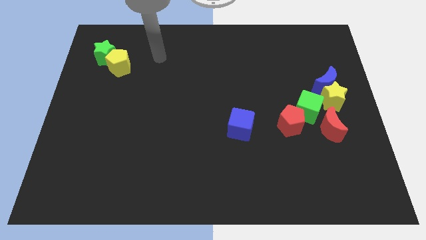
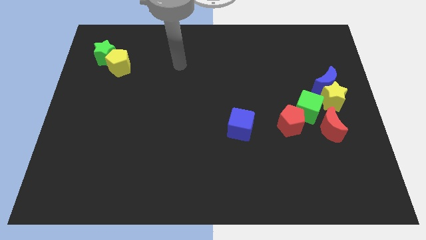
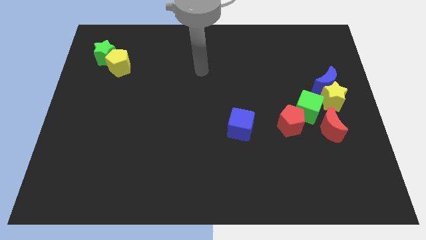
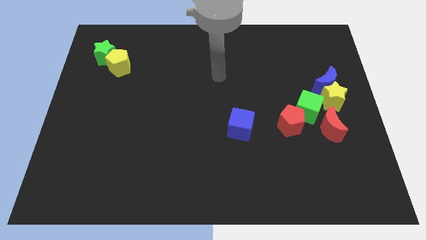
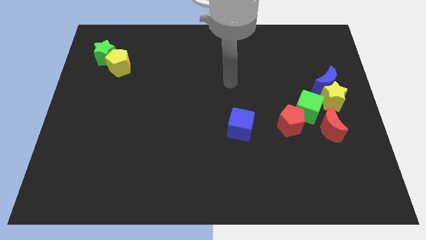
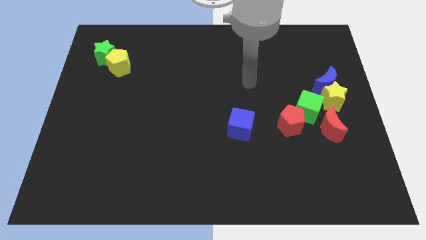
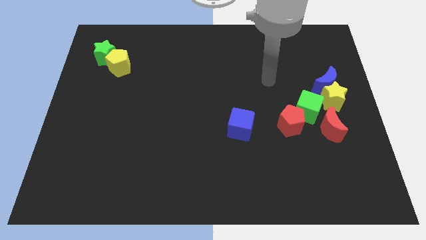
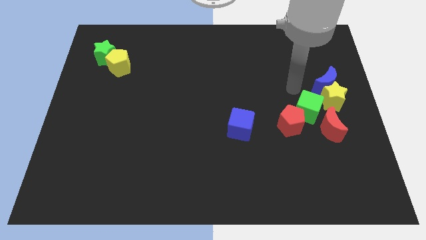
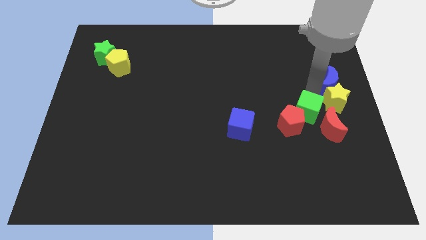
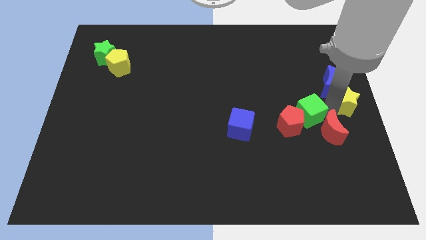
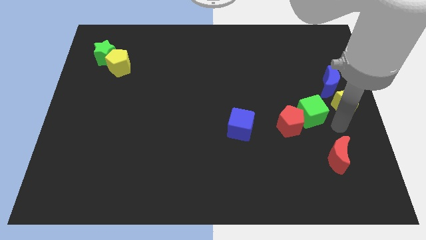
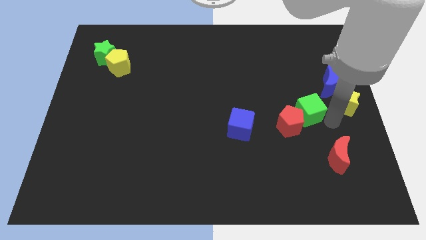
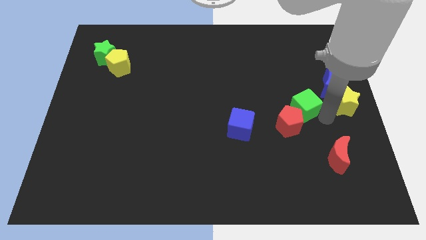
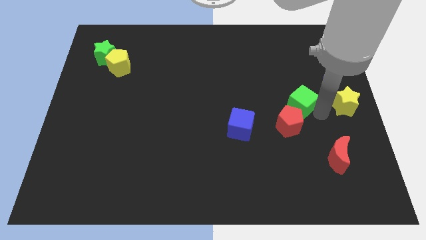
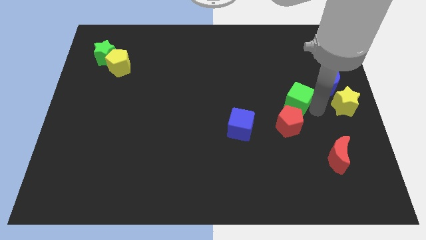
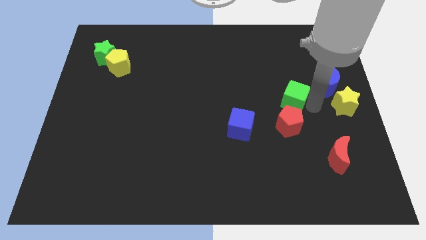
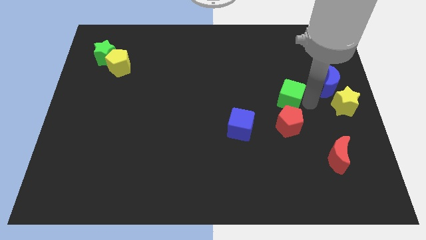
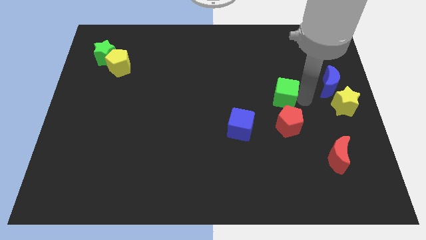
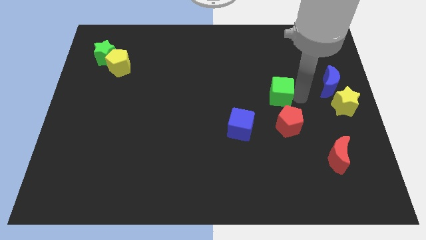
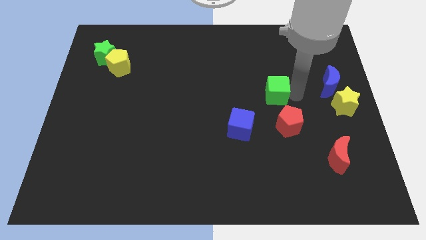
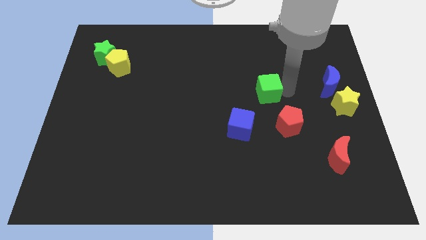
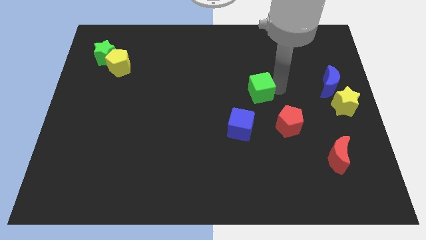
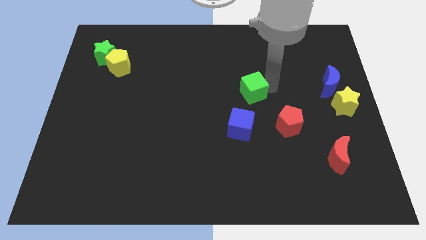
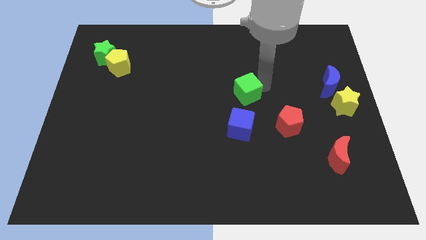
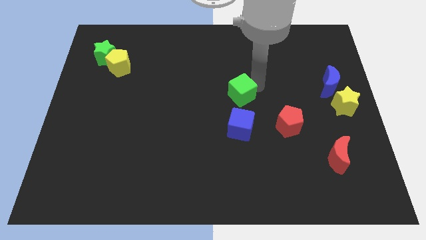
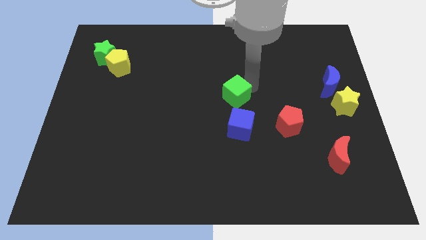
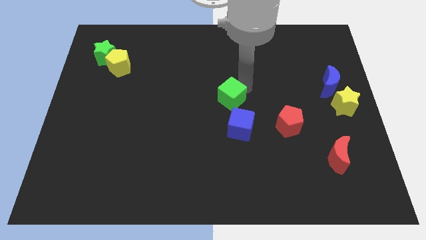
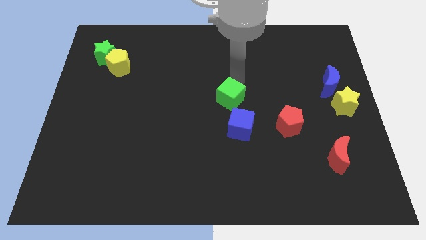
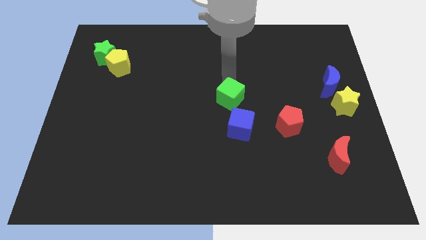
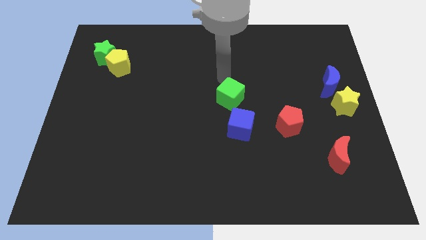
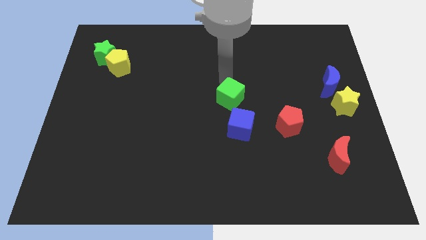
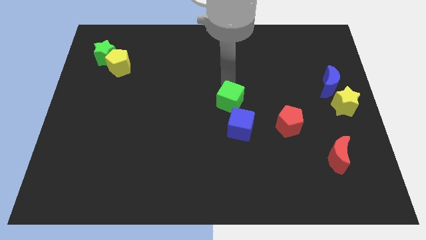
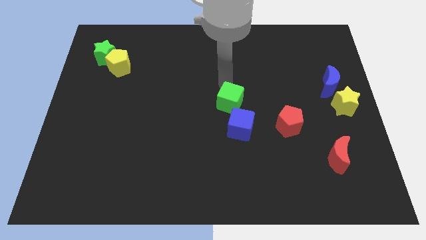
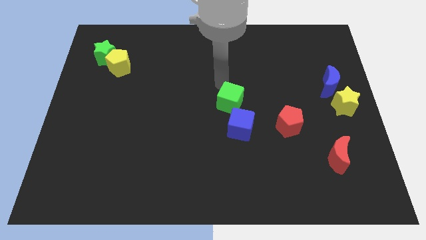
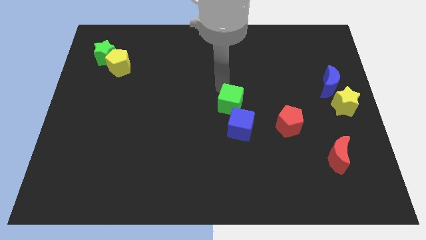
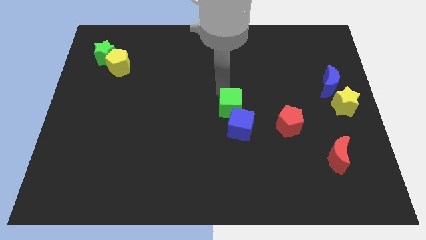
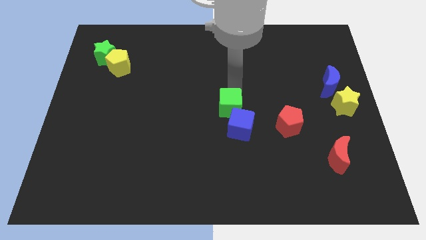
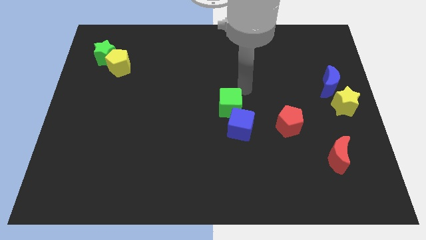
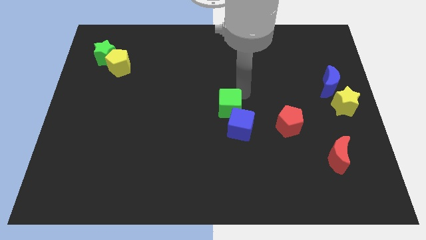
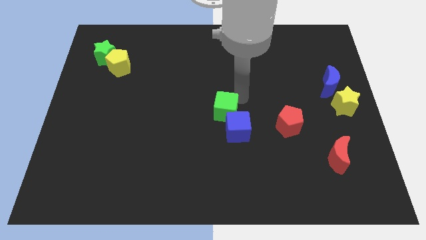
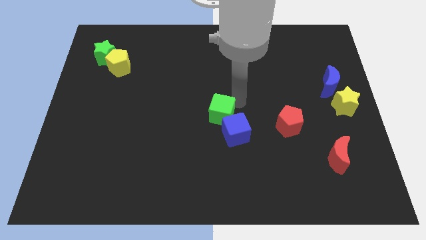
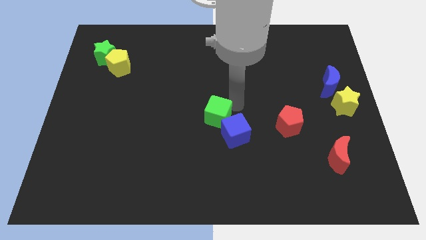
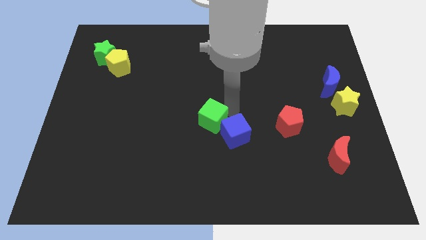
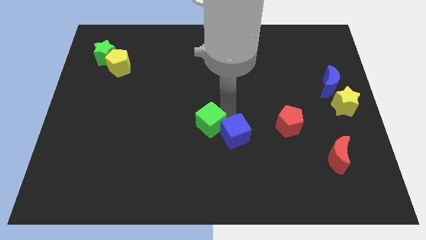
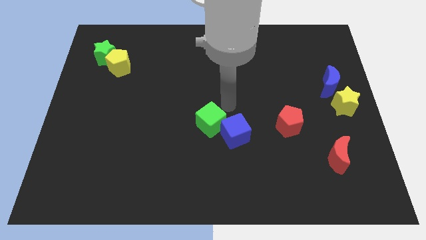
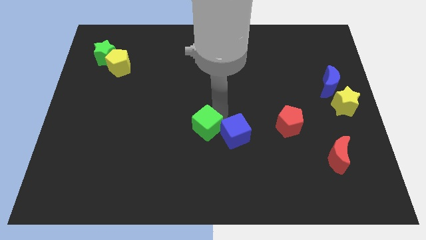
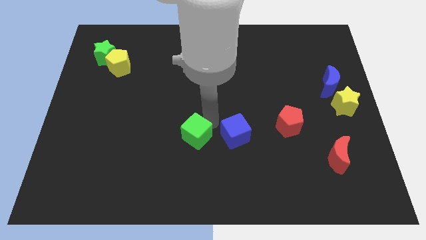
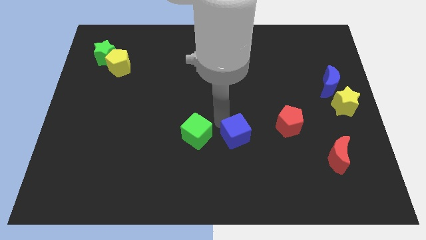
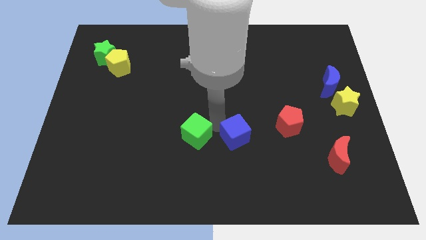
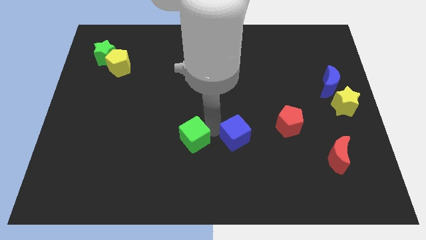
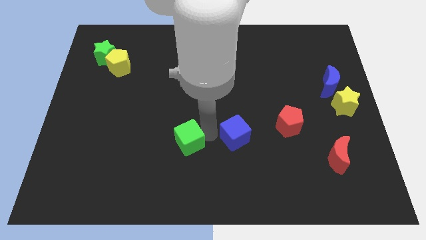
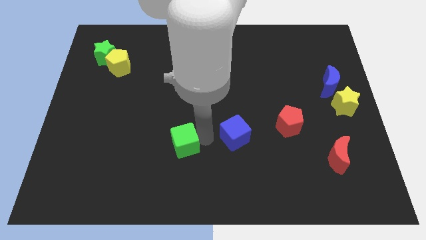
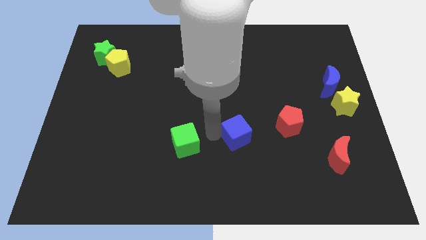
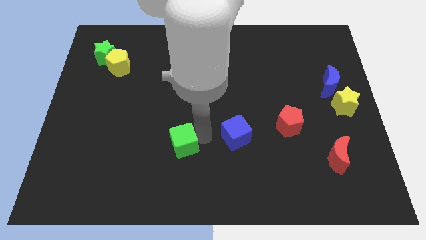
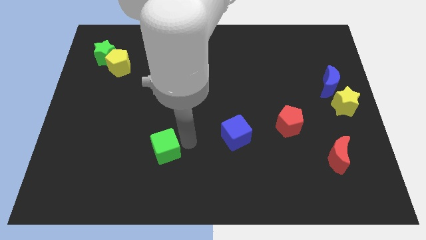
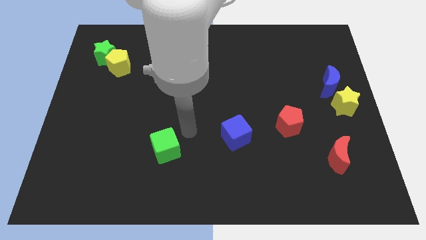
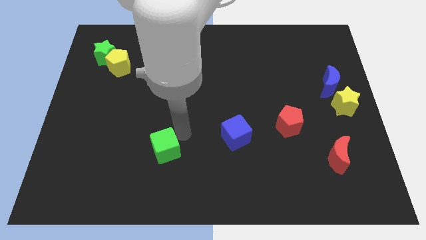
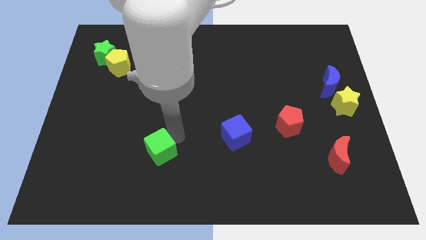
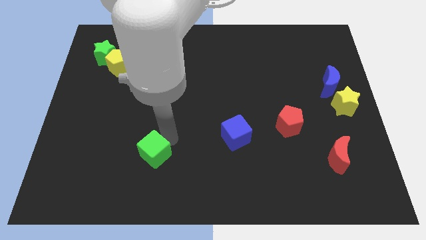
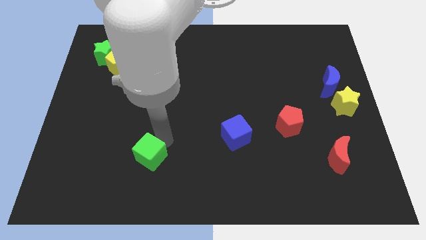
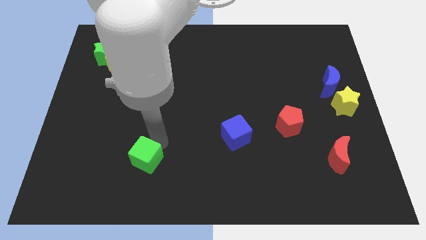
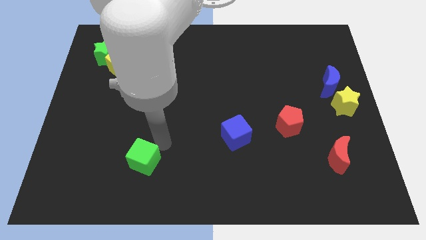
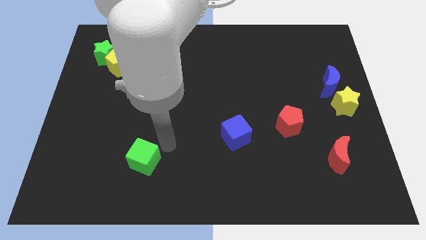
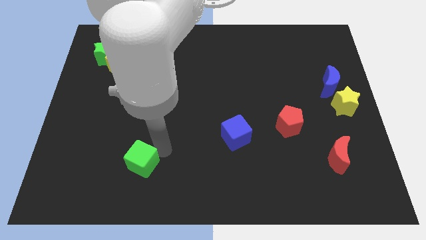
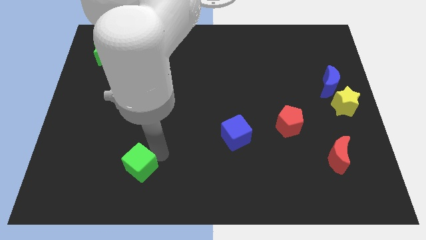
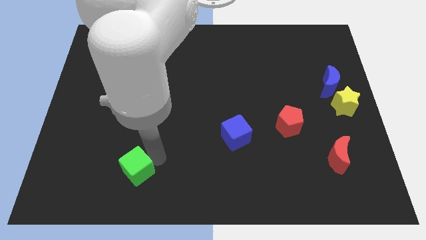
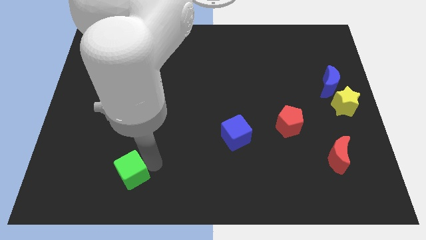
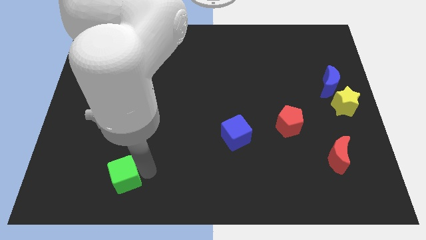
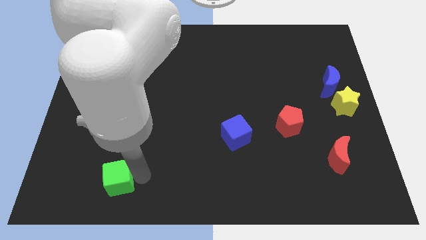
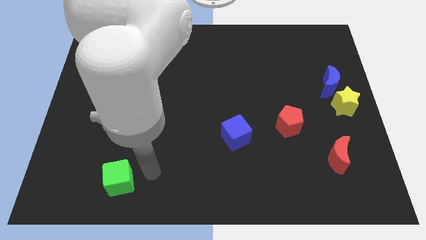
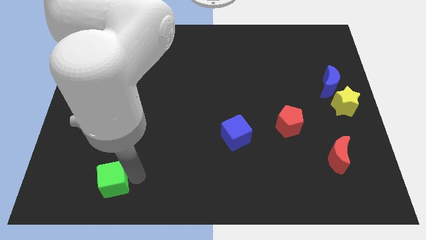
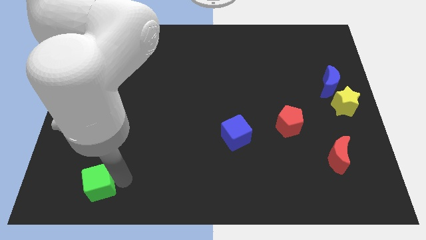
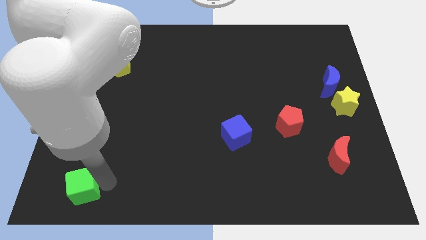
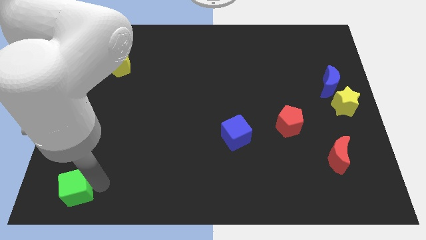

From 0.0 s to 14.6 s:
move the green cube to the lower left corner
